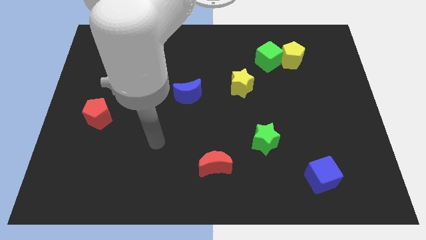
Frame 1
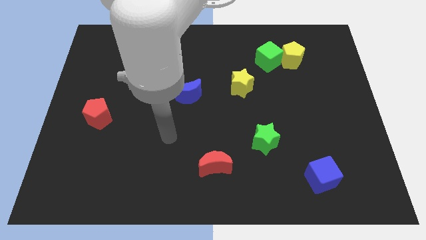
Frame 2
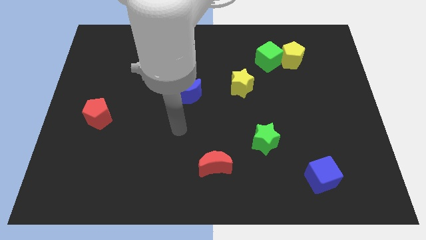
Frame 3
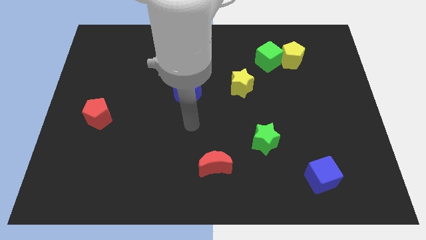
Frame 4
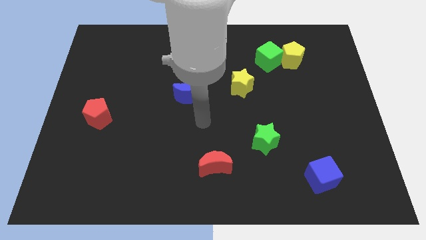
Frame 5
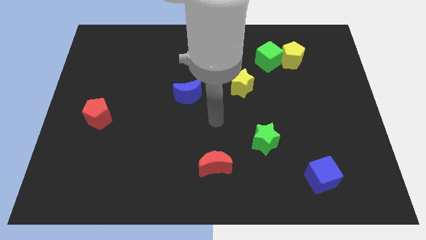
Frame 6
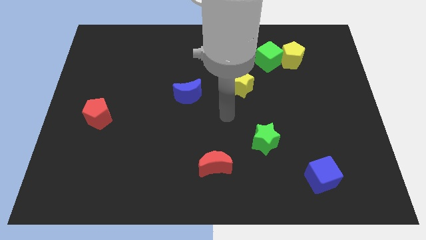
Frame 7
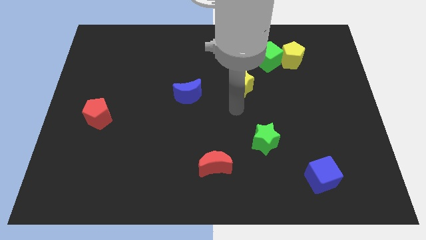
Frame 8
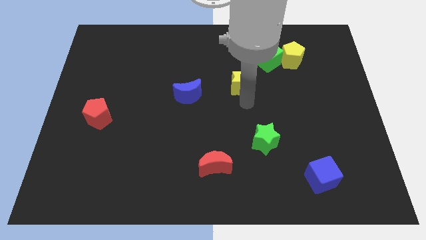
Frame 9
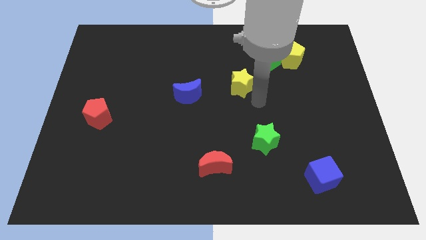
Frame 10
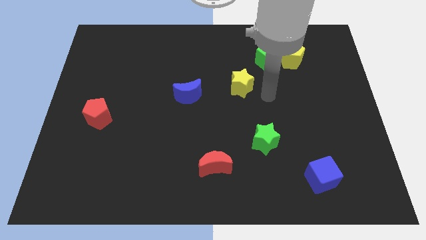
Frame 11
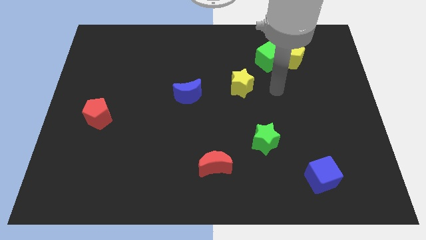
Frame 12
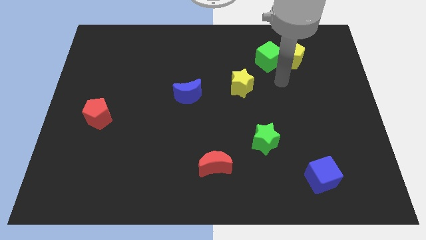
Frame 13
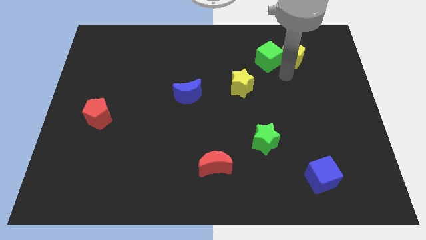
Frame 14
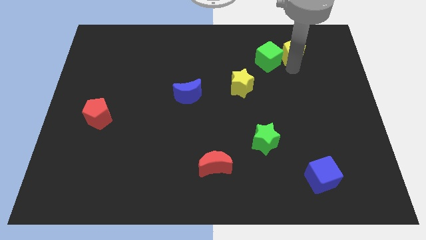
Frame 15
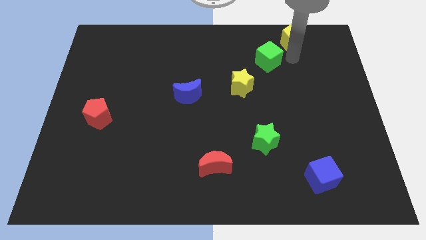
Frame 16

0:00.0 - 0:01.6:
separate the green cube from the yellow pentagon

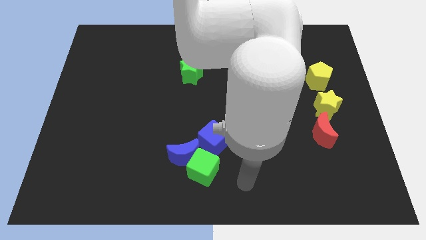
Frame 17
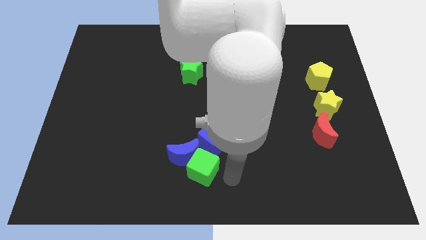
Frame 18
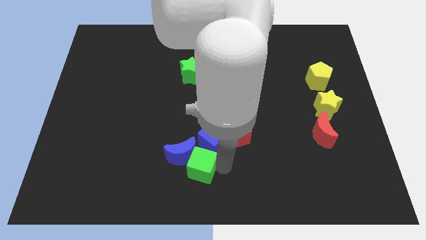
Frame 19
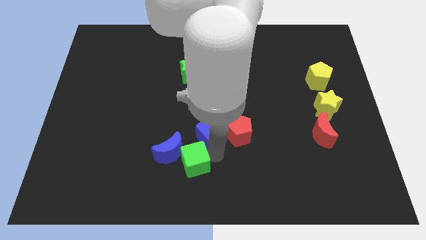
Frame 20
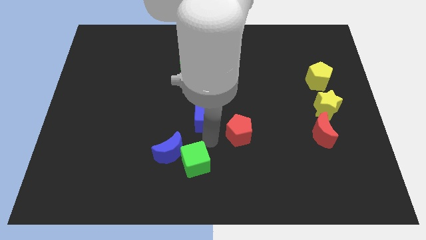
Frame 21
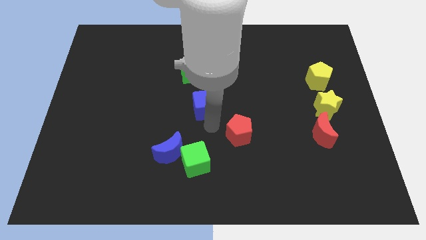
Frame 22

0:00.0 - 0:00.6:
pull the red pentagon apart from the blue cube

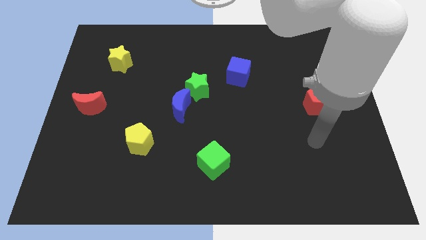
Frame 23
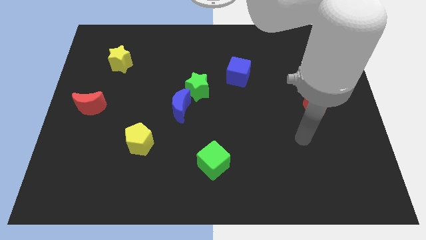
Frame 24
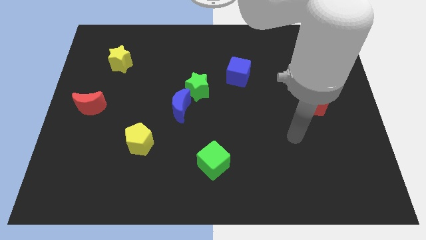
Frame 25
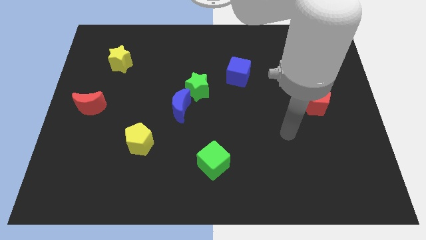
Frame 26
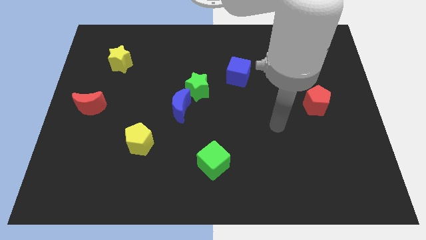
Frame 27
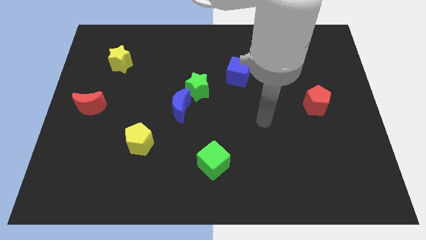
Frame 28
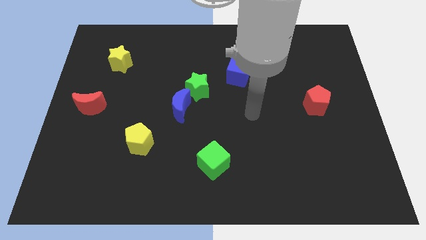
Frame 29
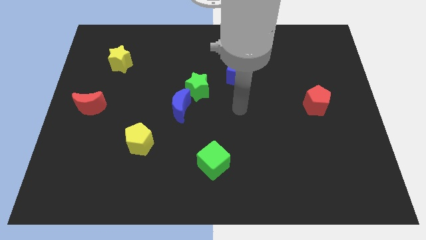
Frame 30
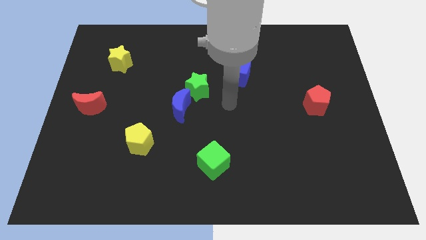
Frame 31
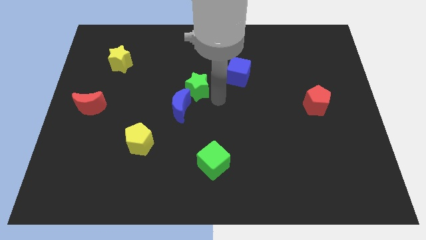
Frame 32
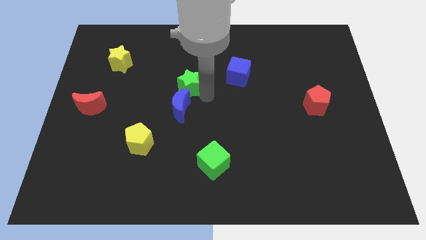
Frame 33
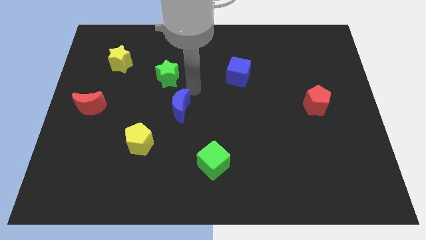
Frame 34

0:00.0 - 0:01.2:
pull the blue moon apart from the green star

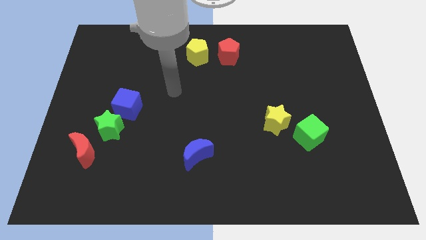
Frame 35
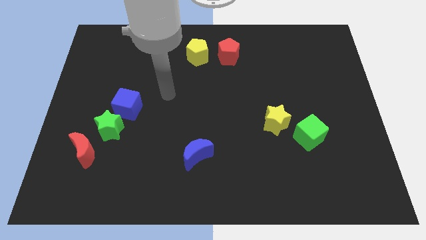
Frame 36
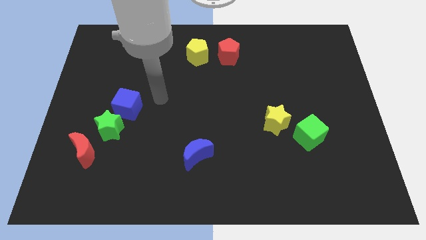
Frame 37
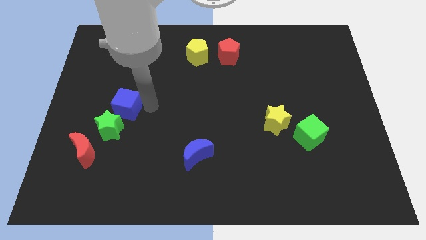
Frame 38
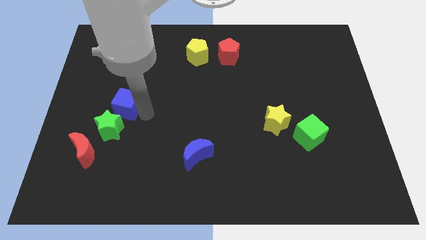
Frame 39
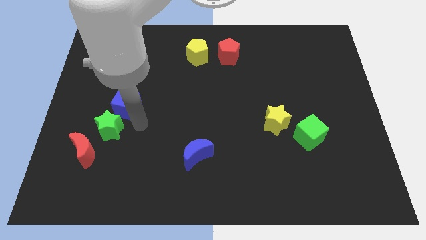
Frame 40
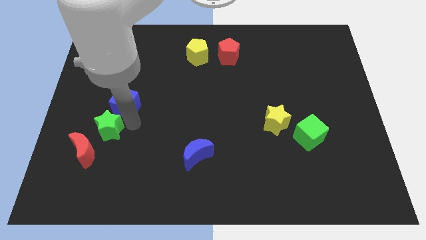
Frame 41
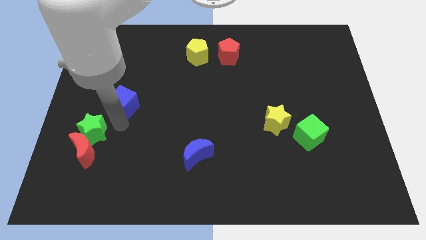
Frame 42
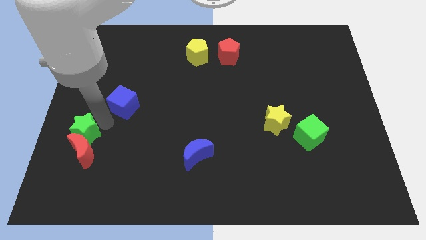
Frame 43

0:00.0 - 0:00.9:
pull the blue cube apart from the green star

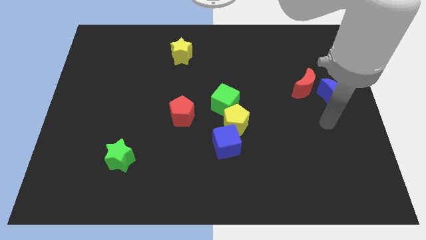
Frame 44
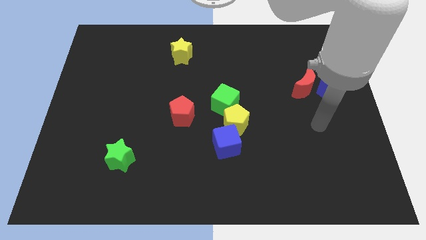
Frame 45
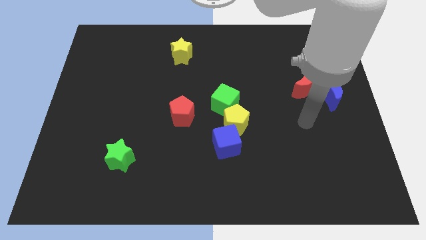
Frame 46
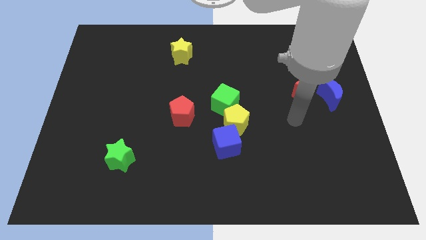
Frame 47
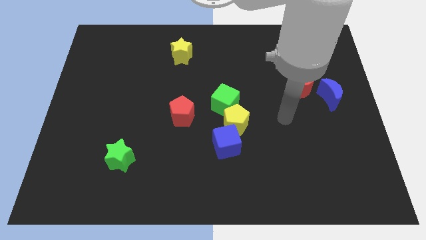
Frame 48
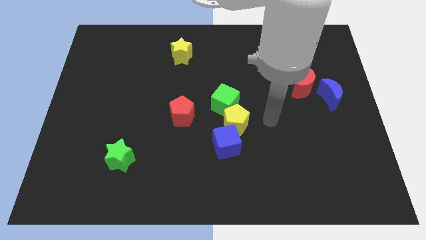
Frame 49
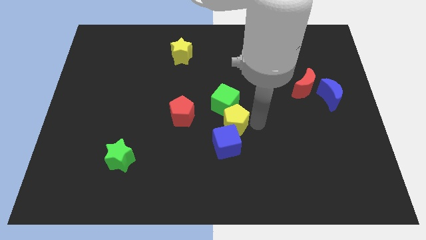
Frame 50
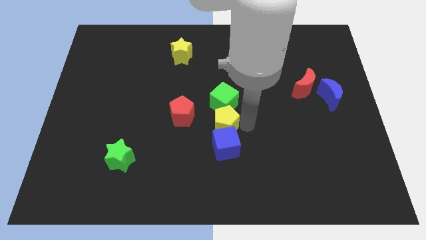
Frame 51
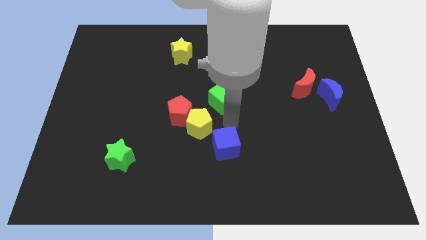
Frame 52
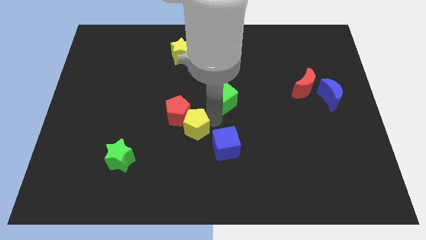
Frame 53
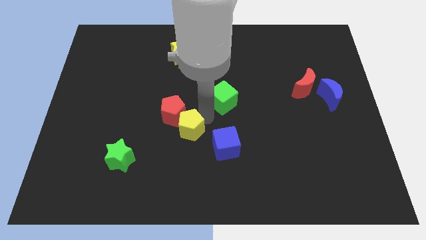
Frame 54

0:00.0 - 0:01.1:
pull the green cube apart from the yellow pentagon

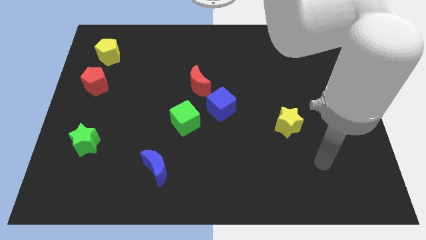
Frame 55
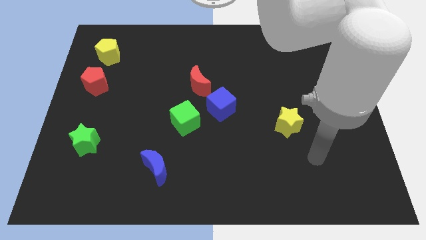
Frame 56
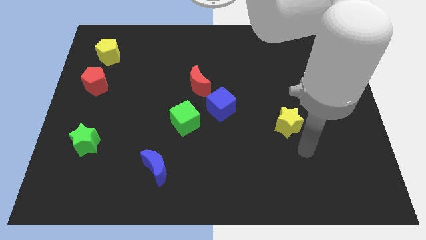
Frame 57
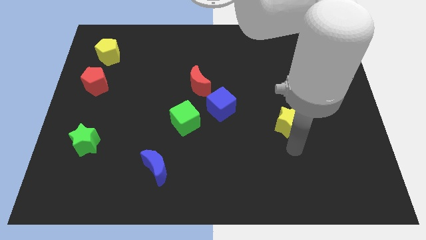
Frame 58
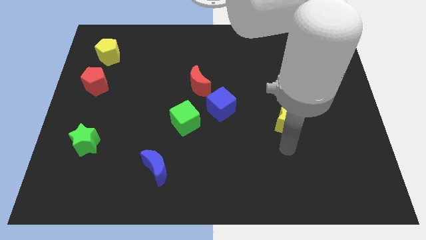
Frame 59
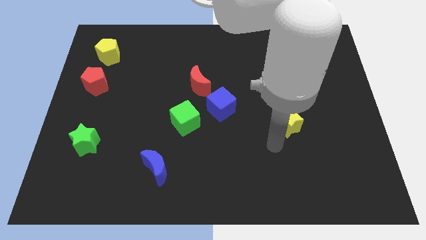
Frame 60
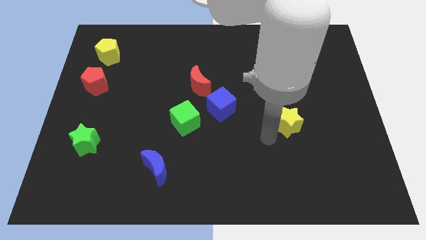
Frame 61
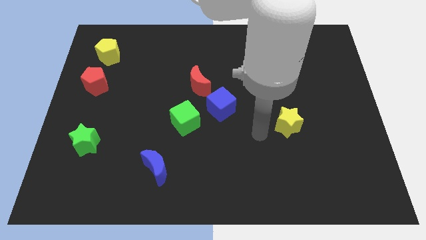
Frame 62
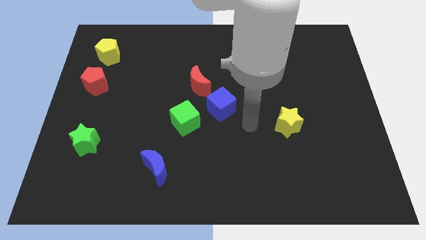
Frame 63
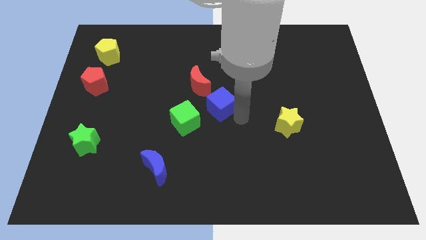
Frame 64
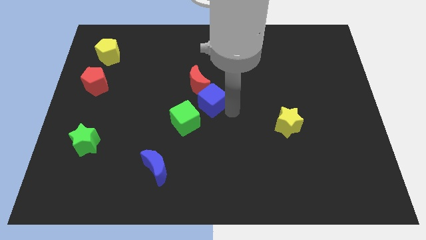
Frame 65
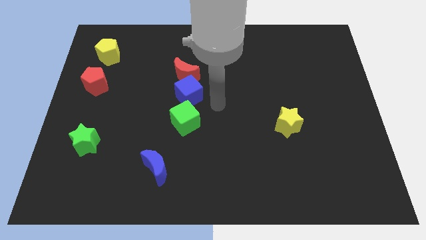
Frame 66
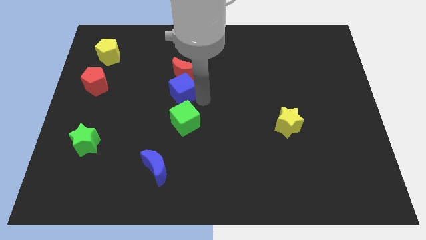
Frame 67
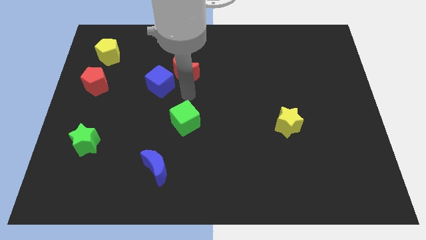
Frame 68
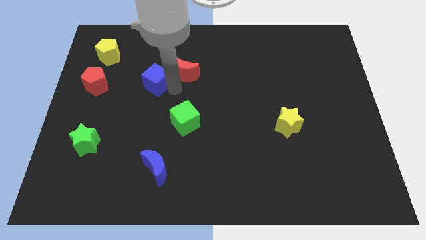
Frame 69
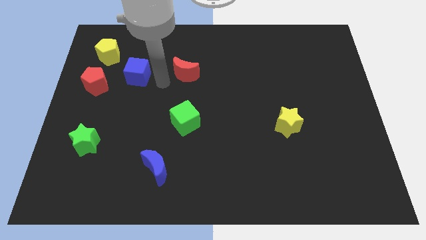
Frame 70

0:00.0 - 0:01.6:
pull the red moon apart from the blue cube

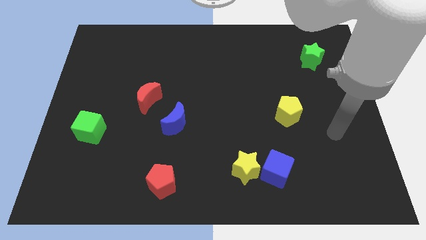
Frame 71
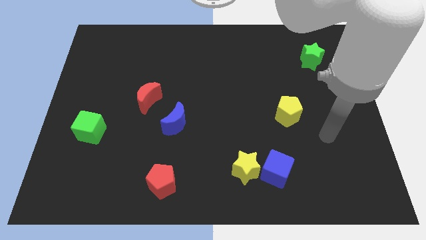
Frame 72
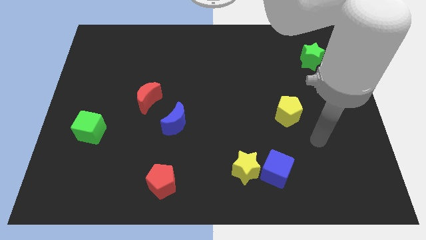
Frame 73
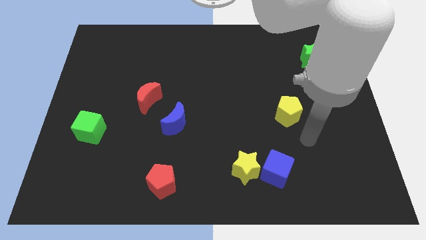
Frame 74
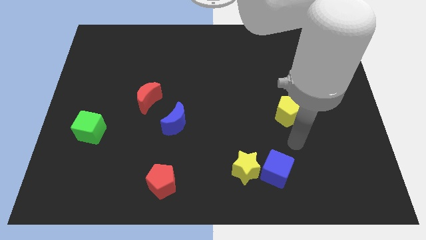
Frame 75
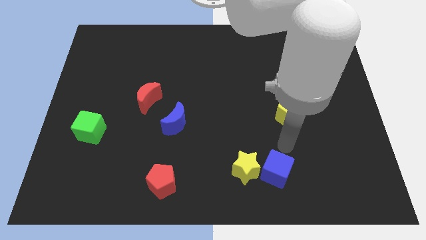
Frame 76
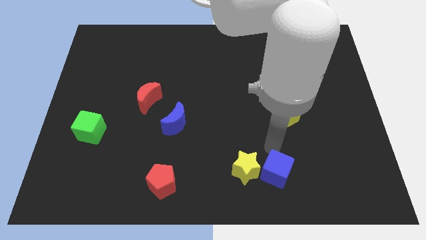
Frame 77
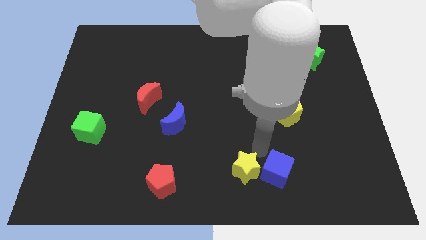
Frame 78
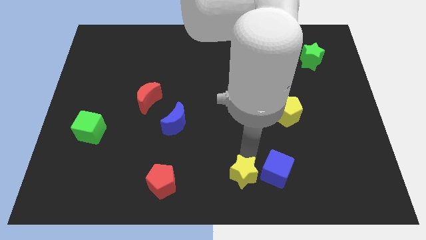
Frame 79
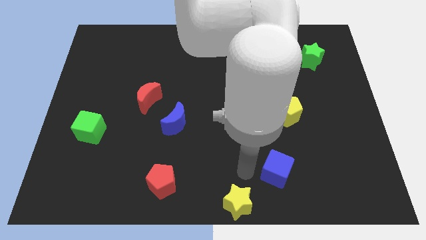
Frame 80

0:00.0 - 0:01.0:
separate the blue cube from the yellow star

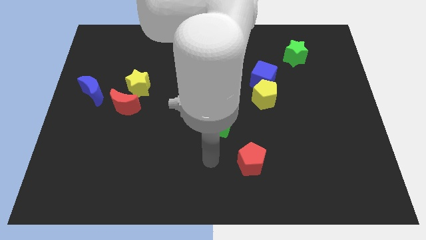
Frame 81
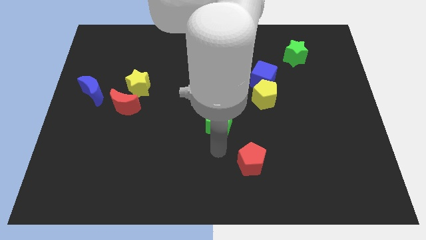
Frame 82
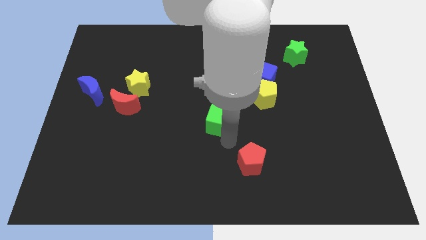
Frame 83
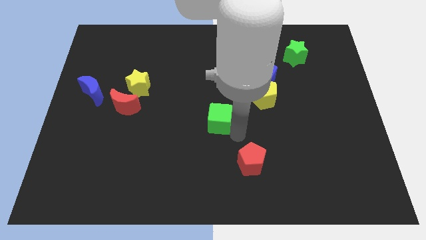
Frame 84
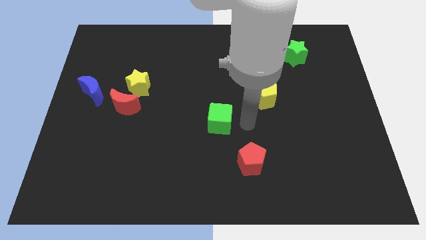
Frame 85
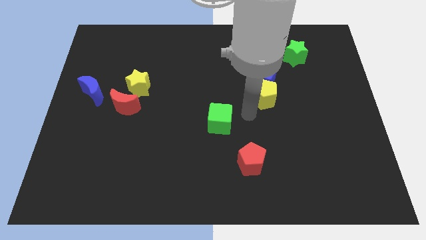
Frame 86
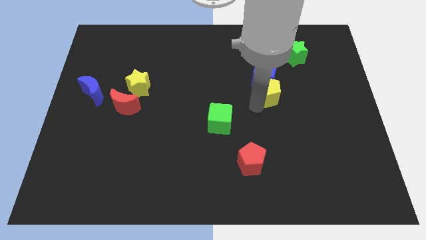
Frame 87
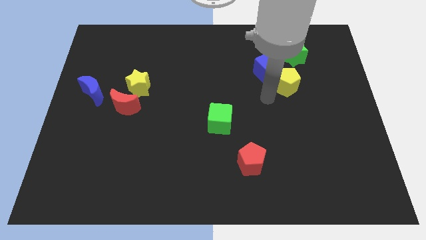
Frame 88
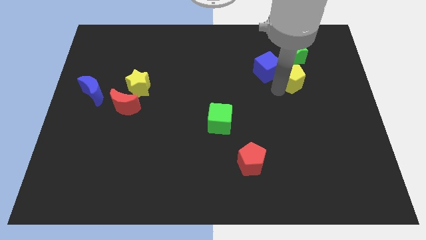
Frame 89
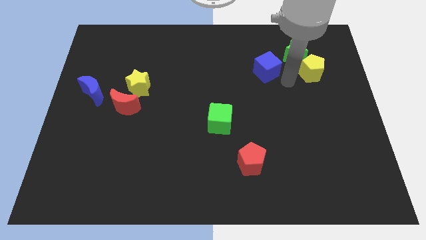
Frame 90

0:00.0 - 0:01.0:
pull the blue cube apart from the yellow pentagon

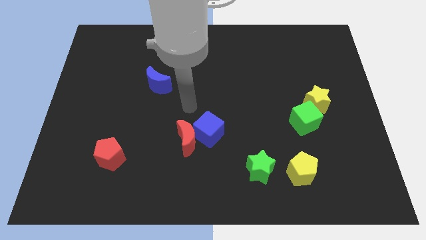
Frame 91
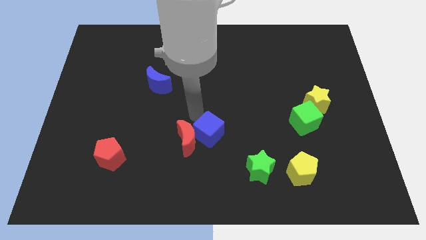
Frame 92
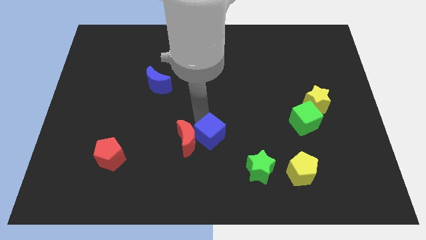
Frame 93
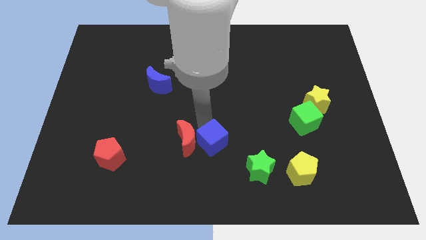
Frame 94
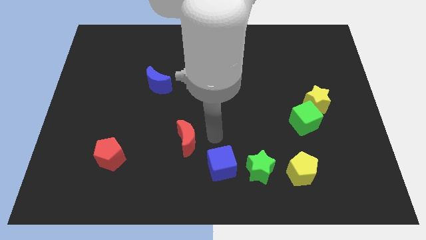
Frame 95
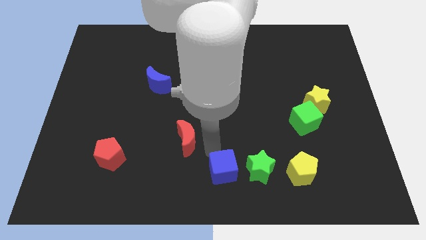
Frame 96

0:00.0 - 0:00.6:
move the red moon away from the blue cube
